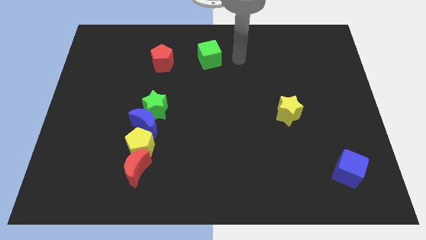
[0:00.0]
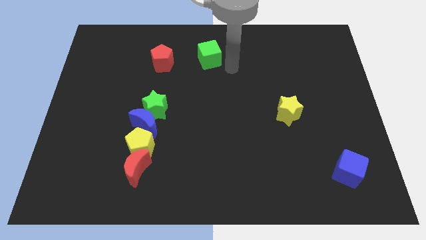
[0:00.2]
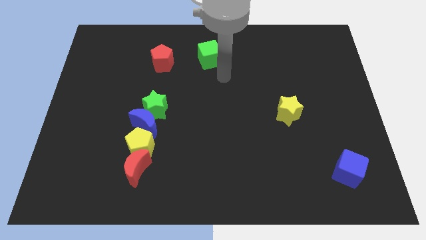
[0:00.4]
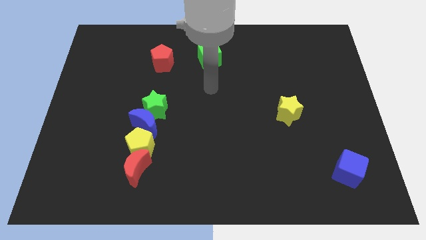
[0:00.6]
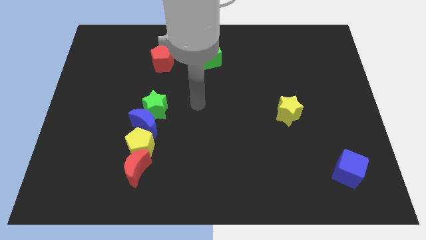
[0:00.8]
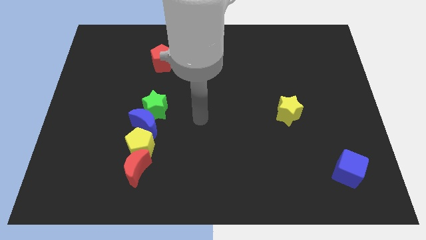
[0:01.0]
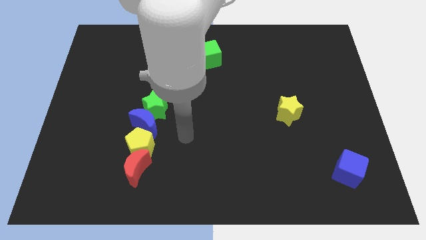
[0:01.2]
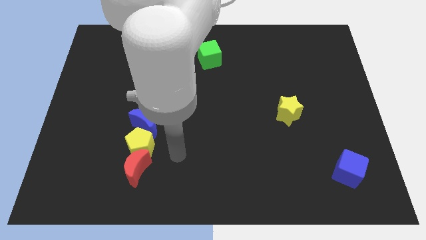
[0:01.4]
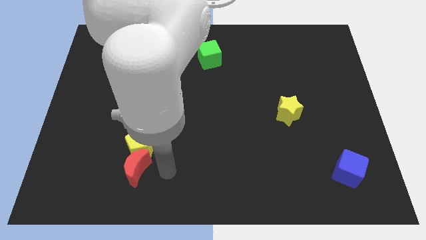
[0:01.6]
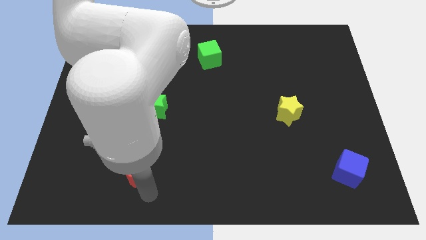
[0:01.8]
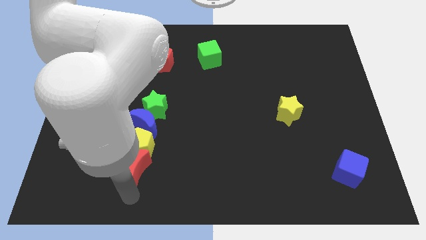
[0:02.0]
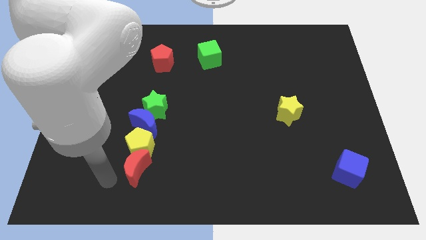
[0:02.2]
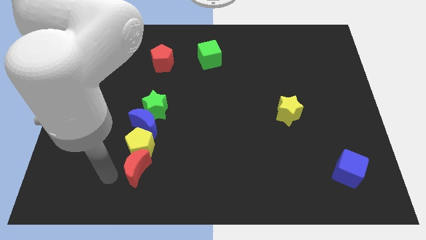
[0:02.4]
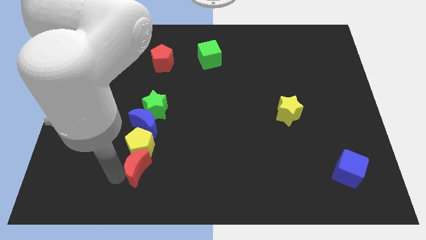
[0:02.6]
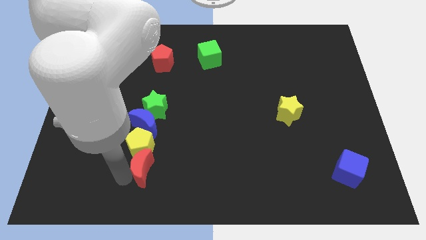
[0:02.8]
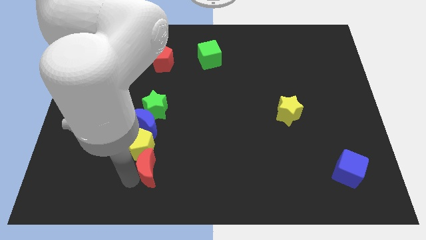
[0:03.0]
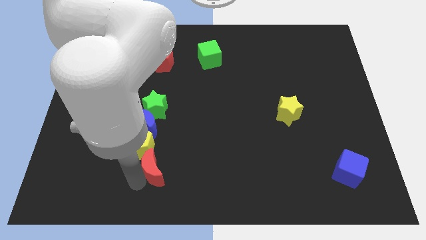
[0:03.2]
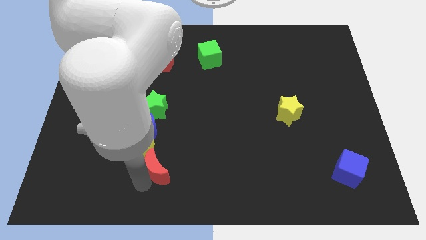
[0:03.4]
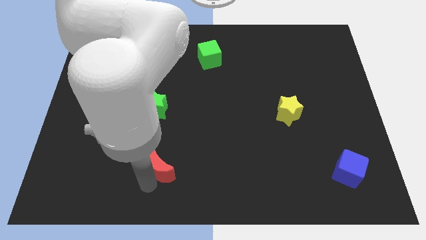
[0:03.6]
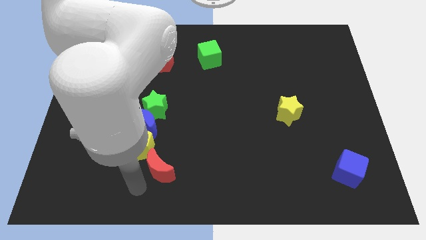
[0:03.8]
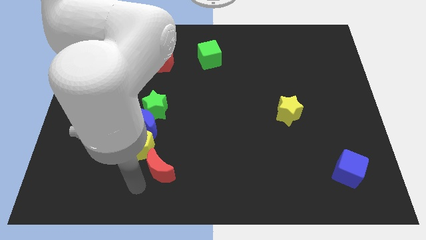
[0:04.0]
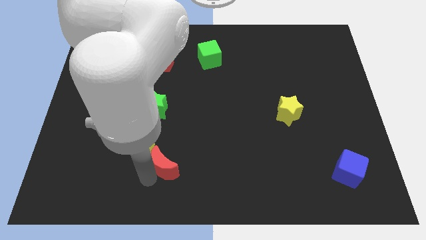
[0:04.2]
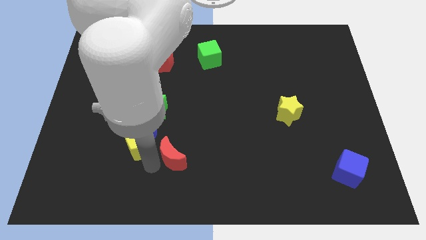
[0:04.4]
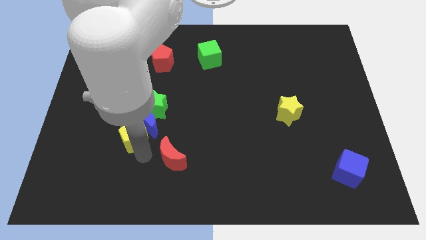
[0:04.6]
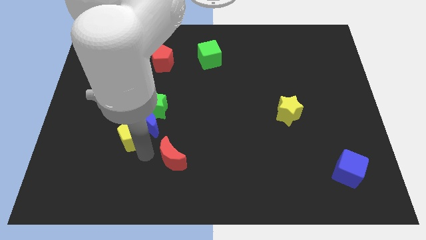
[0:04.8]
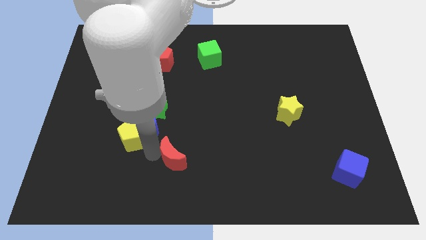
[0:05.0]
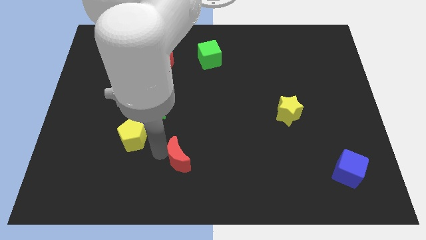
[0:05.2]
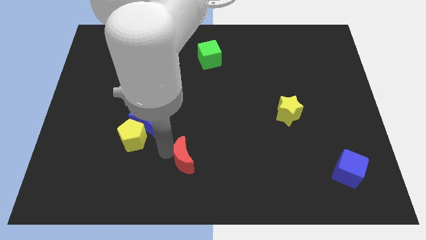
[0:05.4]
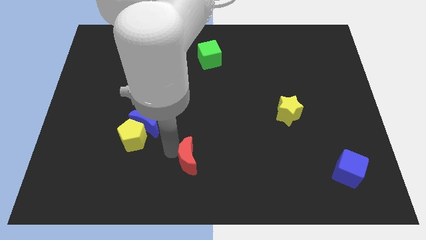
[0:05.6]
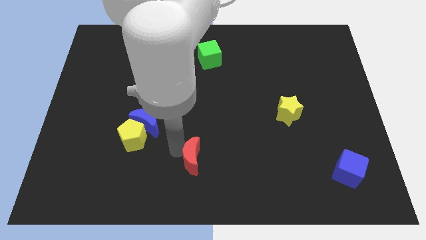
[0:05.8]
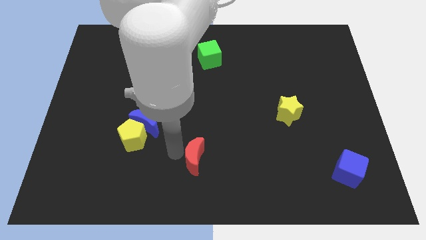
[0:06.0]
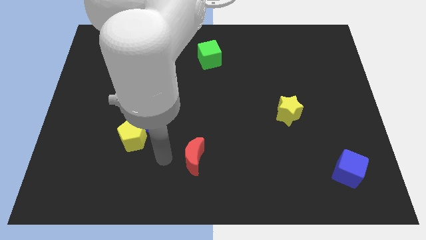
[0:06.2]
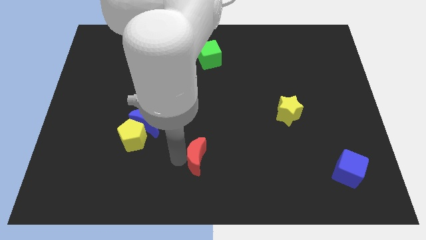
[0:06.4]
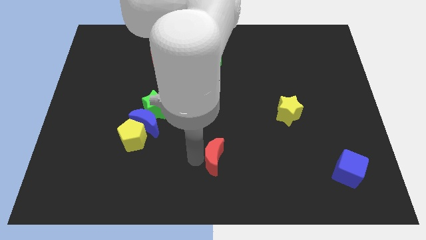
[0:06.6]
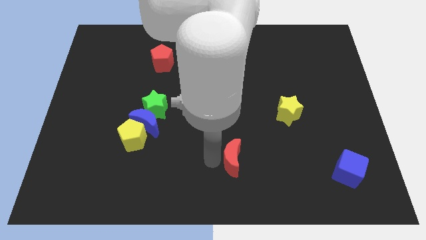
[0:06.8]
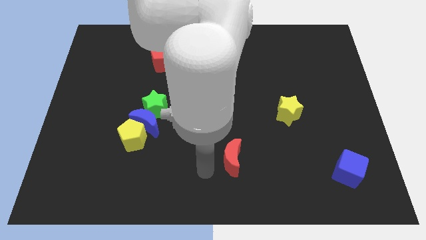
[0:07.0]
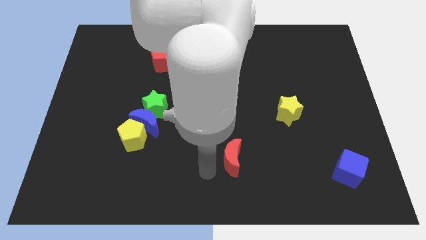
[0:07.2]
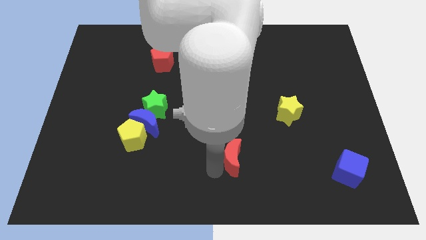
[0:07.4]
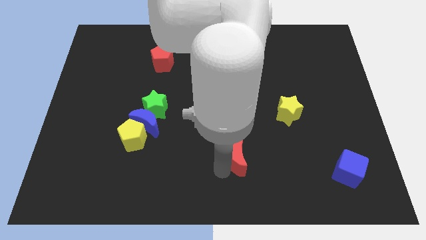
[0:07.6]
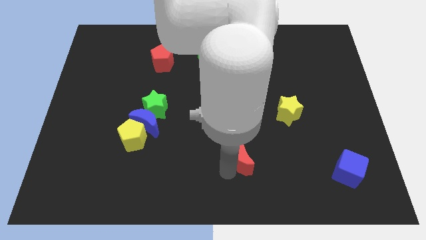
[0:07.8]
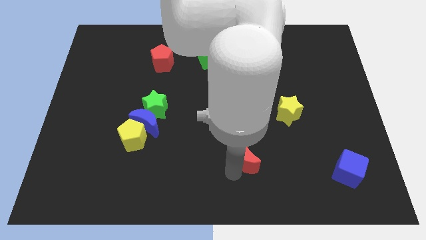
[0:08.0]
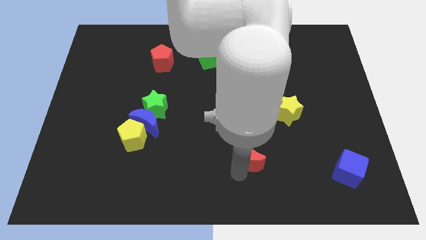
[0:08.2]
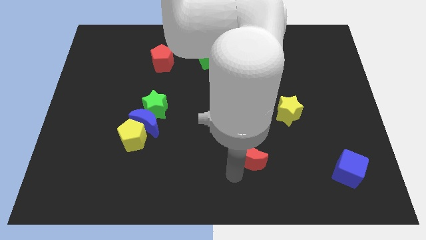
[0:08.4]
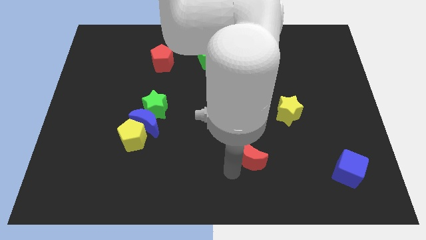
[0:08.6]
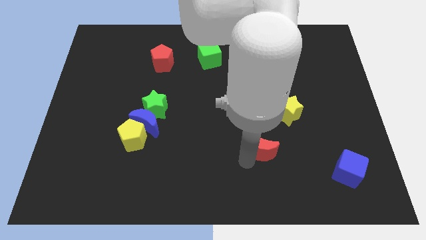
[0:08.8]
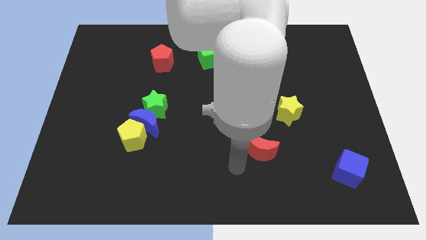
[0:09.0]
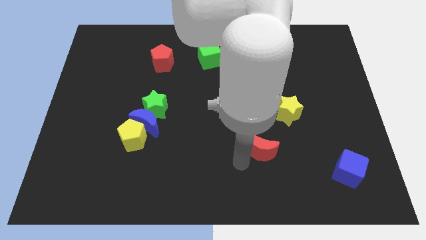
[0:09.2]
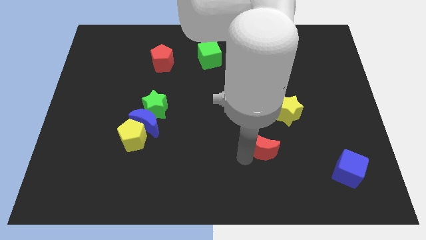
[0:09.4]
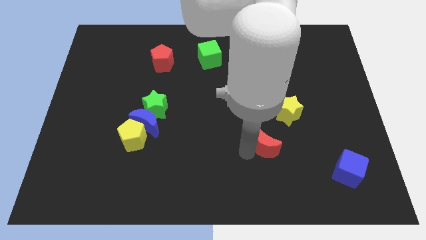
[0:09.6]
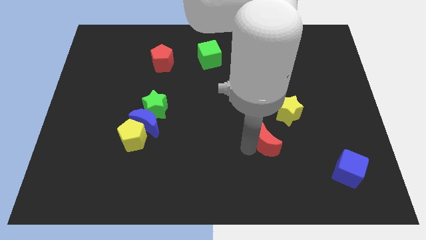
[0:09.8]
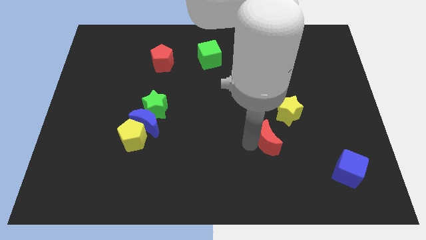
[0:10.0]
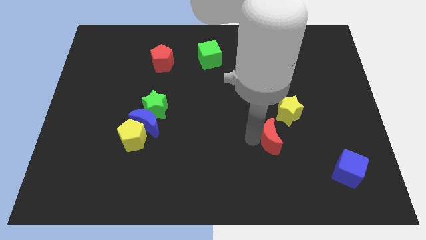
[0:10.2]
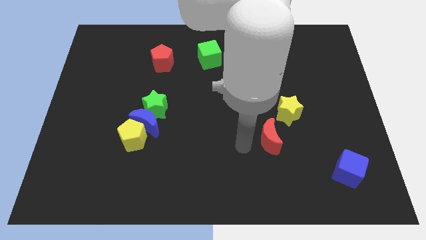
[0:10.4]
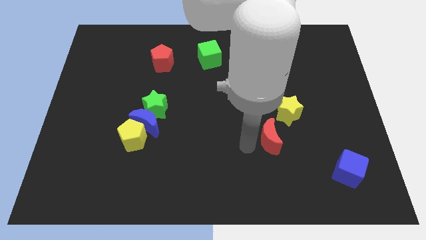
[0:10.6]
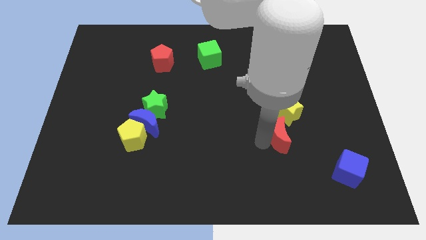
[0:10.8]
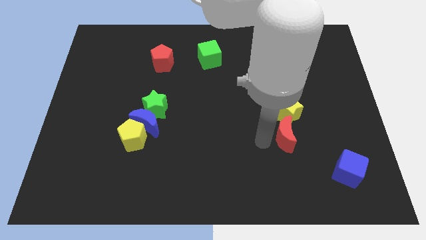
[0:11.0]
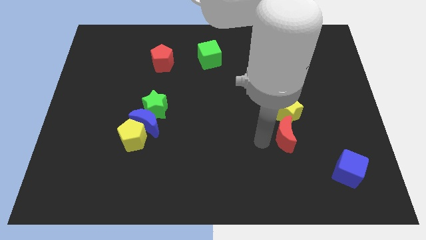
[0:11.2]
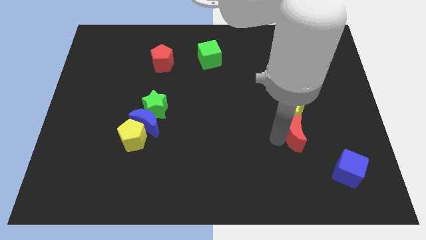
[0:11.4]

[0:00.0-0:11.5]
slide the red moon to the bottom right side of the yellow star

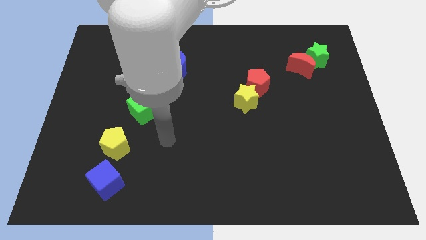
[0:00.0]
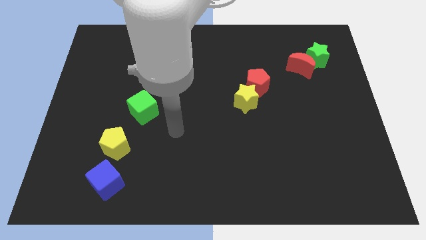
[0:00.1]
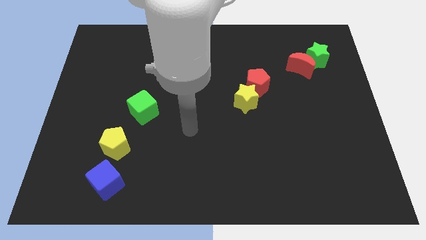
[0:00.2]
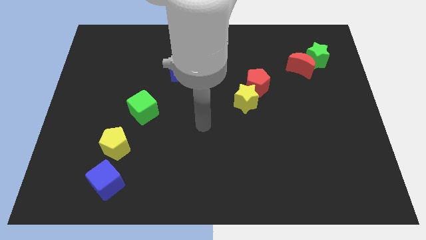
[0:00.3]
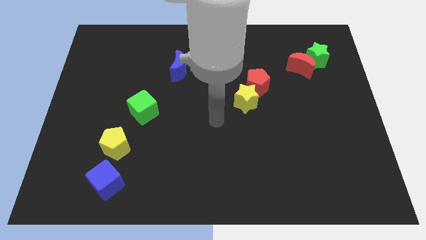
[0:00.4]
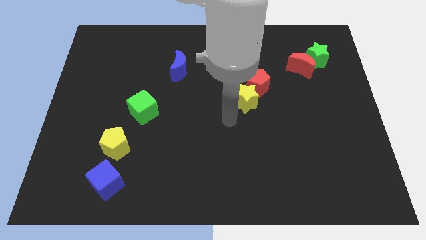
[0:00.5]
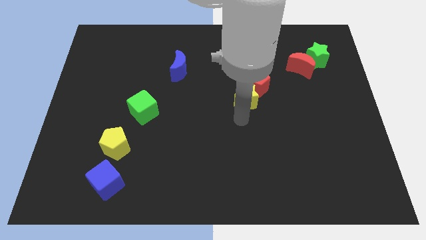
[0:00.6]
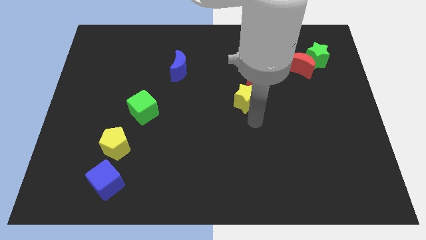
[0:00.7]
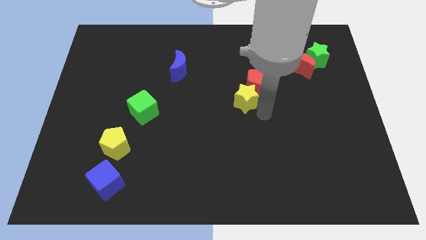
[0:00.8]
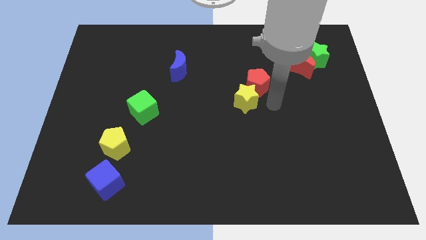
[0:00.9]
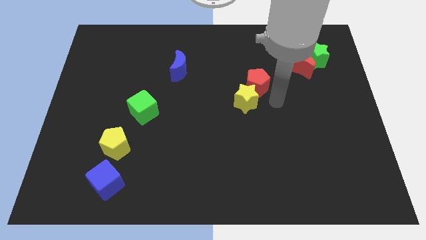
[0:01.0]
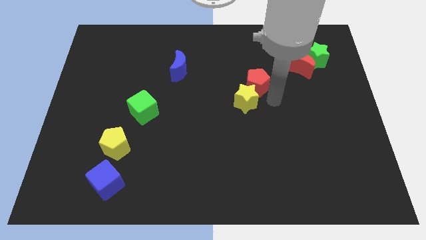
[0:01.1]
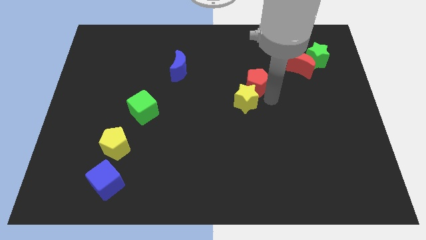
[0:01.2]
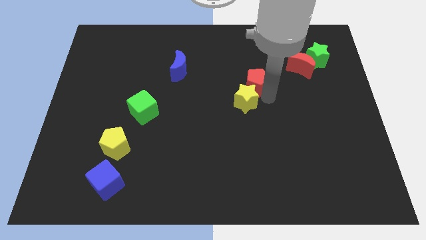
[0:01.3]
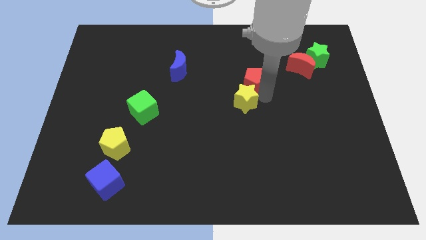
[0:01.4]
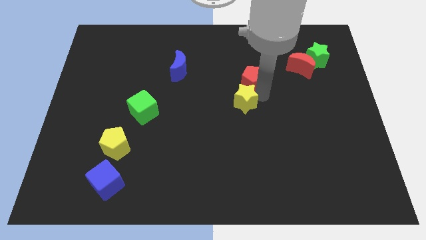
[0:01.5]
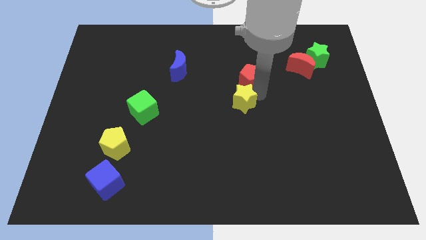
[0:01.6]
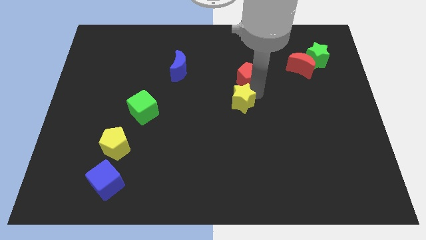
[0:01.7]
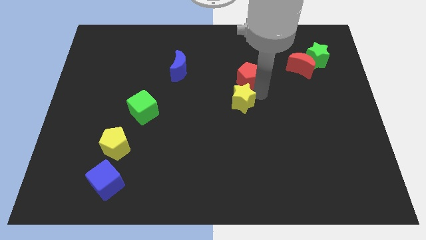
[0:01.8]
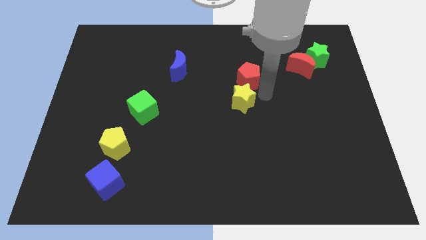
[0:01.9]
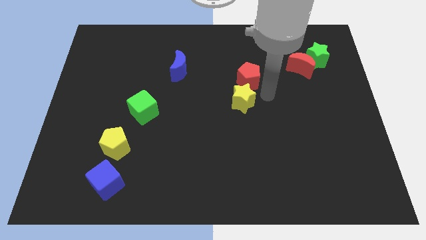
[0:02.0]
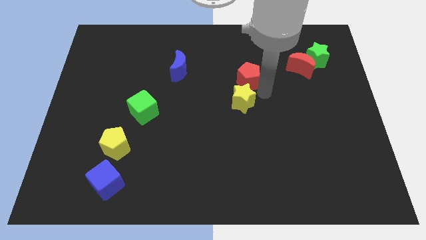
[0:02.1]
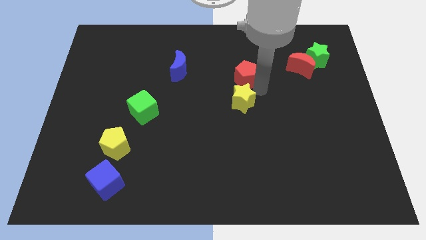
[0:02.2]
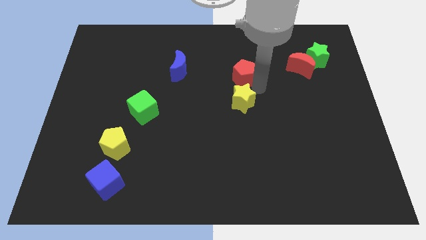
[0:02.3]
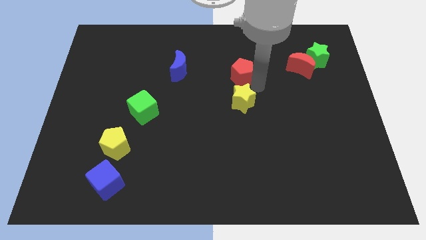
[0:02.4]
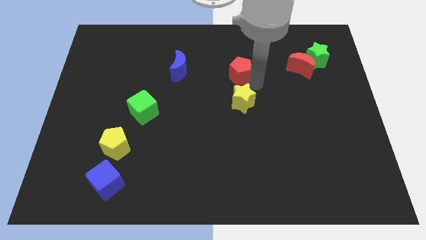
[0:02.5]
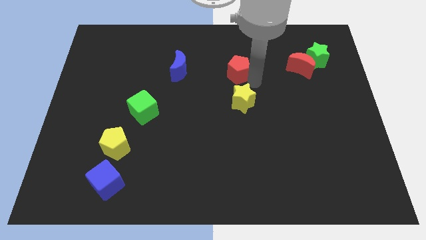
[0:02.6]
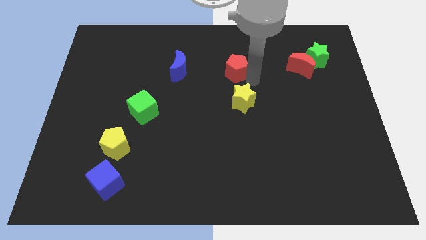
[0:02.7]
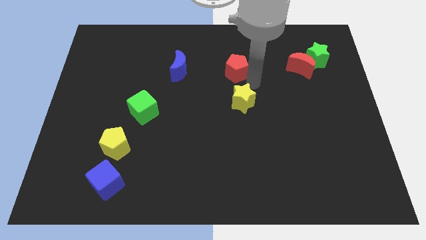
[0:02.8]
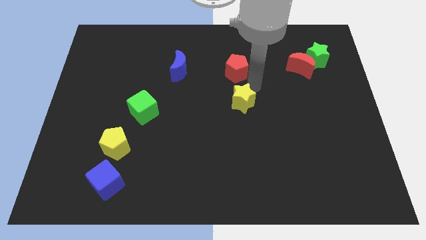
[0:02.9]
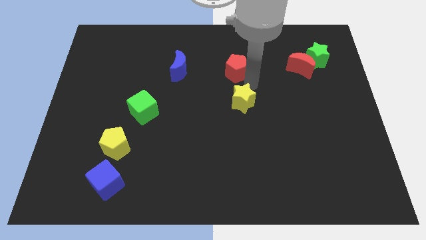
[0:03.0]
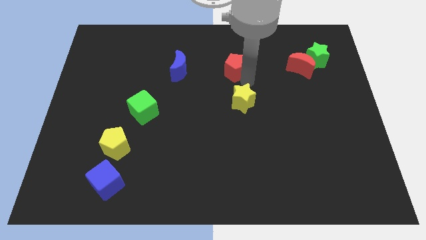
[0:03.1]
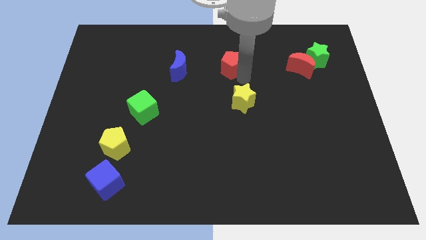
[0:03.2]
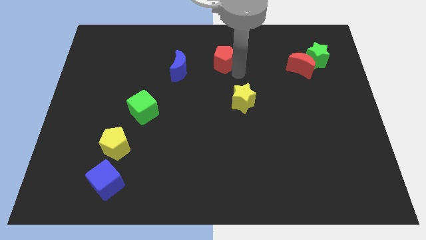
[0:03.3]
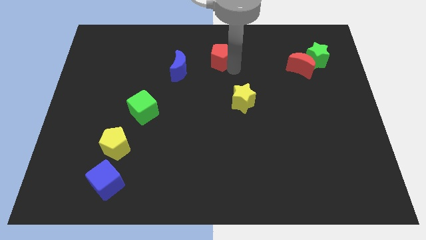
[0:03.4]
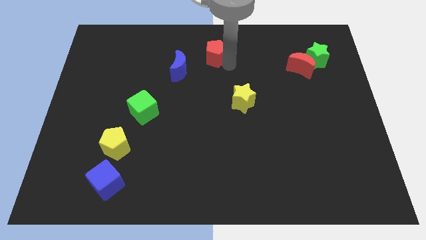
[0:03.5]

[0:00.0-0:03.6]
push the red pentagon diagonally up and to the right of the blue moon
